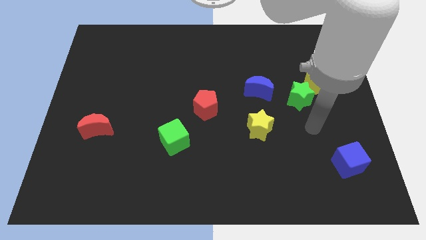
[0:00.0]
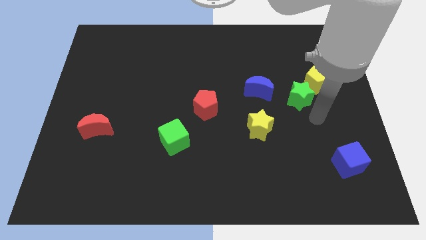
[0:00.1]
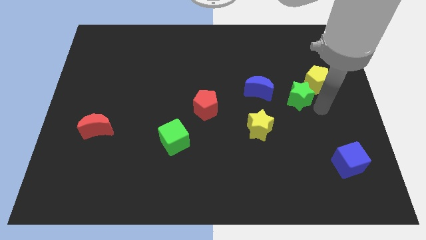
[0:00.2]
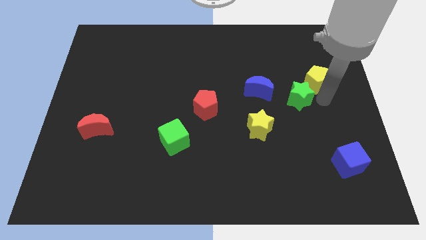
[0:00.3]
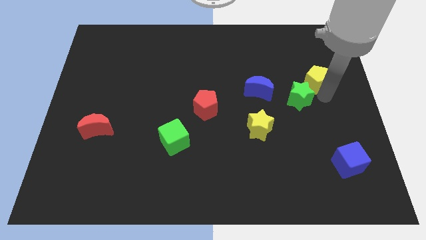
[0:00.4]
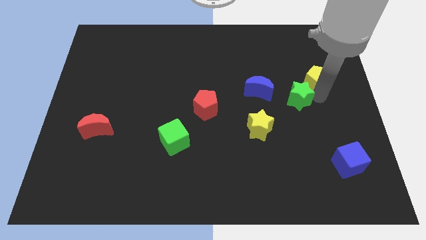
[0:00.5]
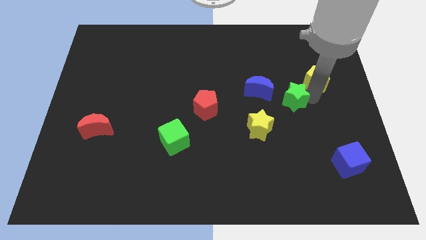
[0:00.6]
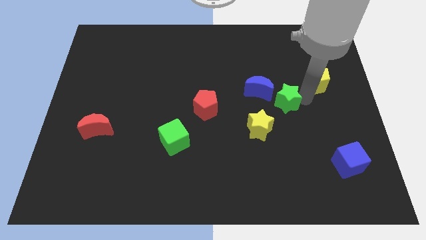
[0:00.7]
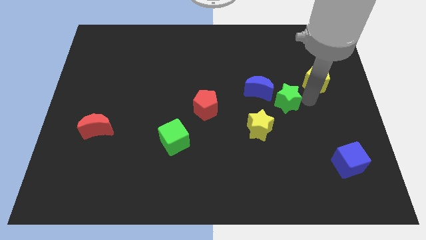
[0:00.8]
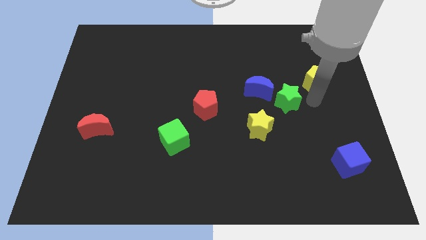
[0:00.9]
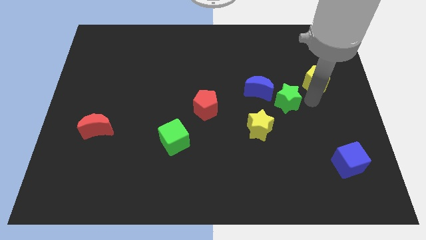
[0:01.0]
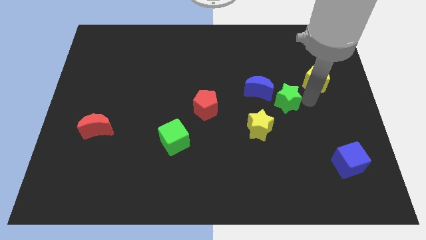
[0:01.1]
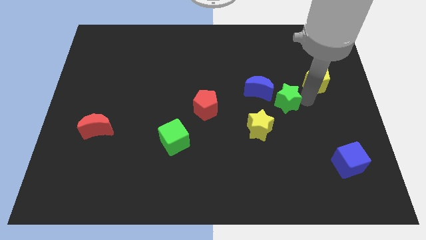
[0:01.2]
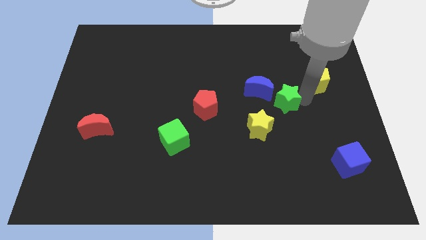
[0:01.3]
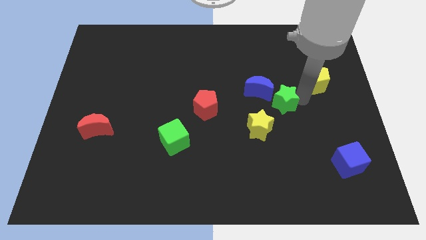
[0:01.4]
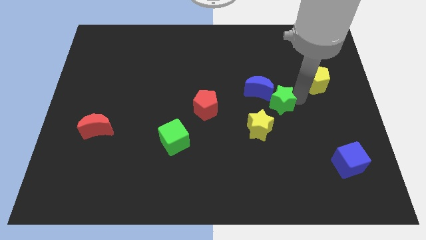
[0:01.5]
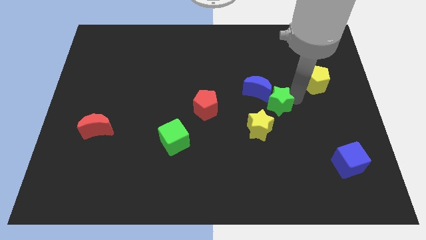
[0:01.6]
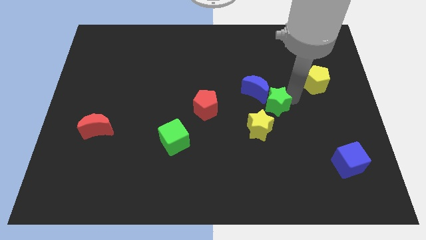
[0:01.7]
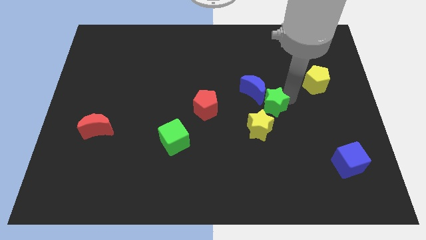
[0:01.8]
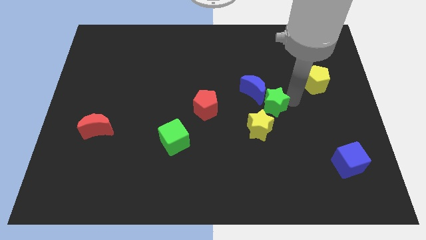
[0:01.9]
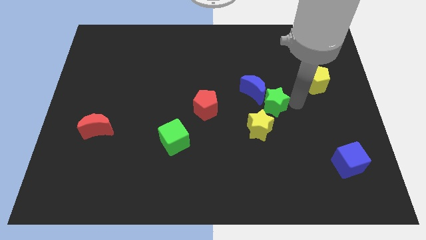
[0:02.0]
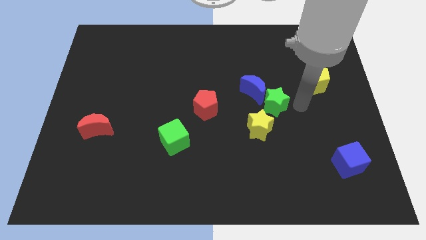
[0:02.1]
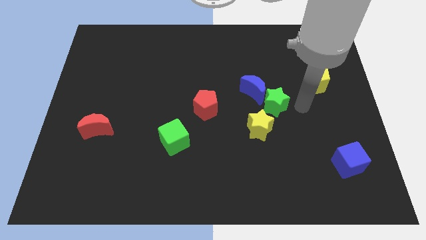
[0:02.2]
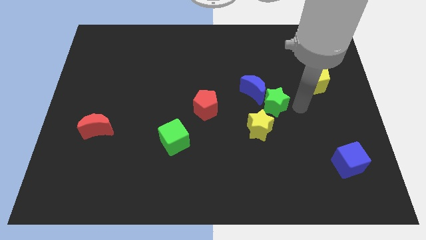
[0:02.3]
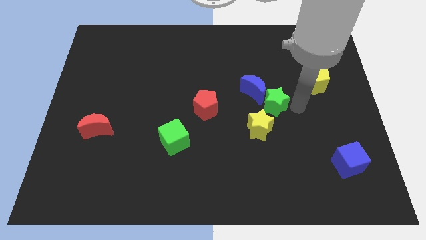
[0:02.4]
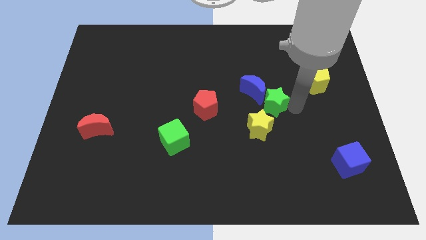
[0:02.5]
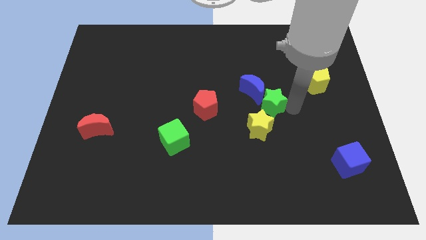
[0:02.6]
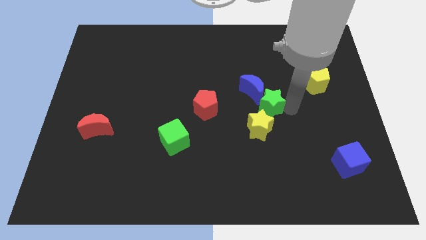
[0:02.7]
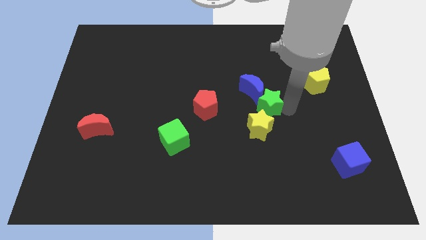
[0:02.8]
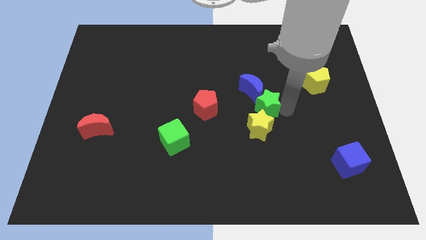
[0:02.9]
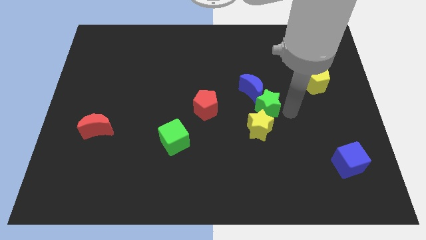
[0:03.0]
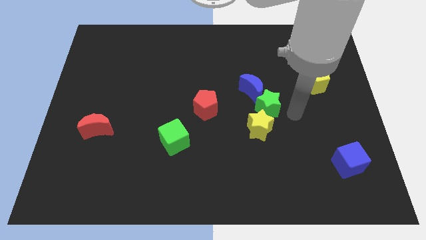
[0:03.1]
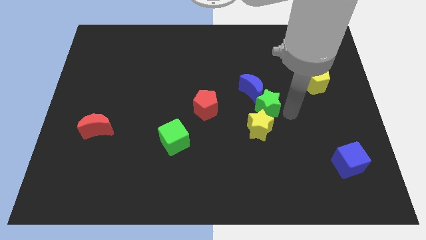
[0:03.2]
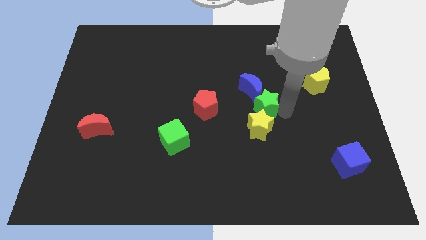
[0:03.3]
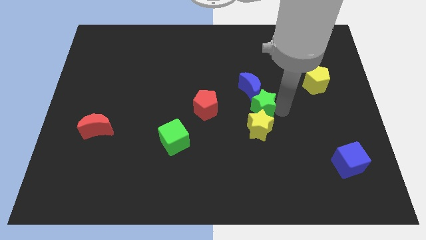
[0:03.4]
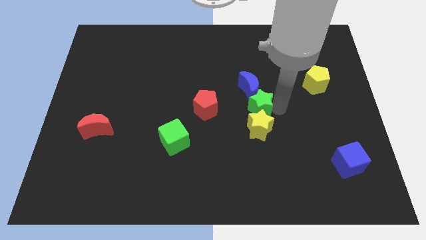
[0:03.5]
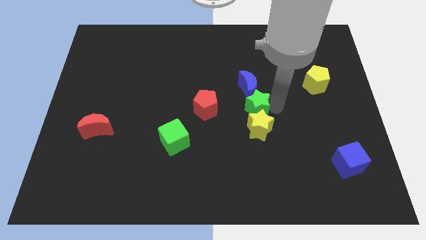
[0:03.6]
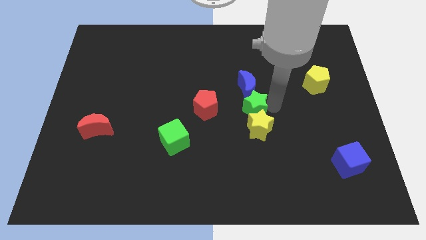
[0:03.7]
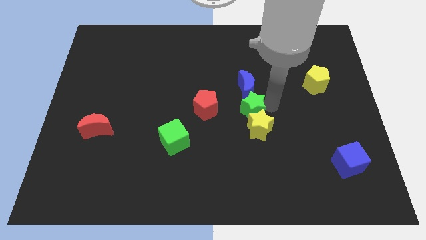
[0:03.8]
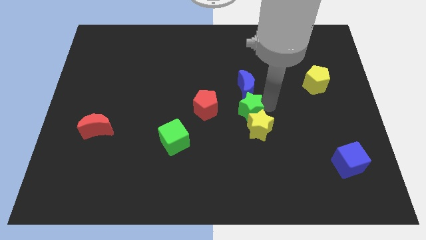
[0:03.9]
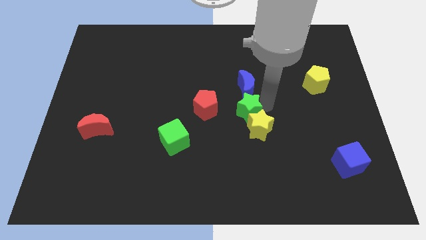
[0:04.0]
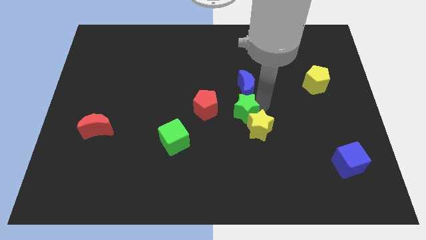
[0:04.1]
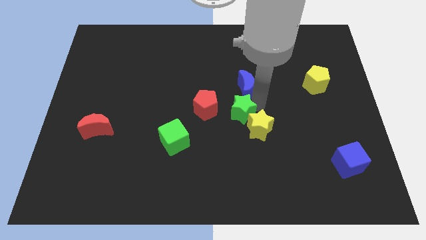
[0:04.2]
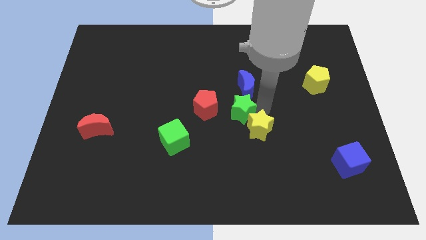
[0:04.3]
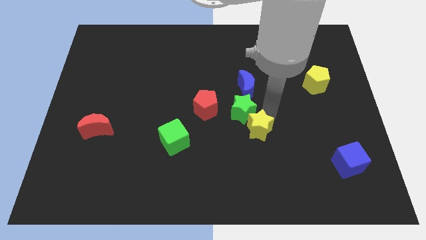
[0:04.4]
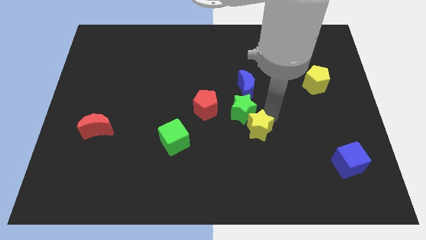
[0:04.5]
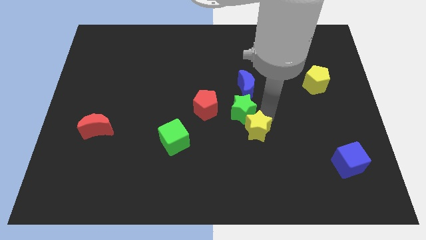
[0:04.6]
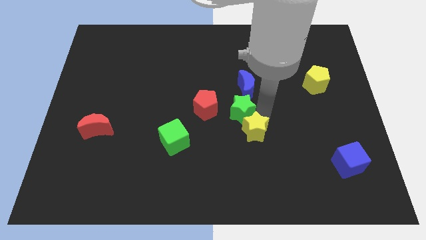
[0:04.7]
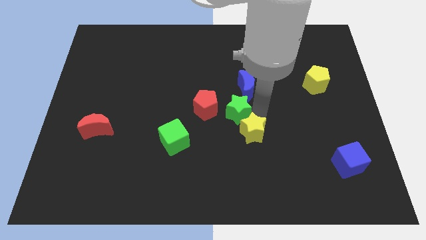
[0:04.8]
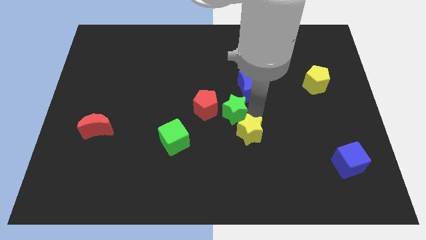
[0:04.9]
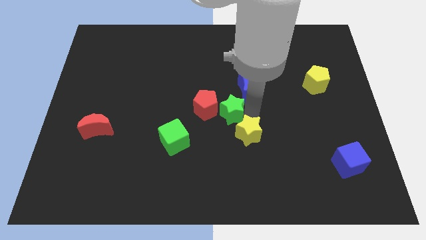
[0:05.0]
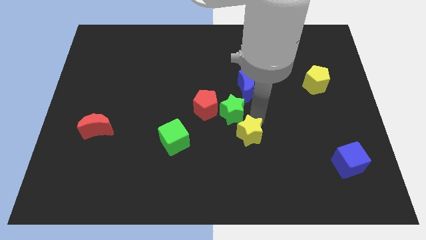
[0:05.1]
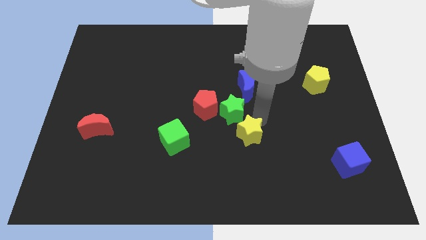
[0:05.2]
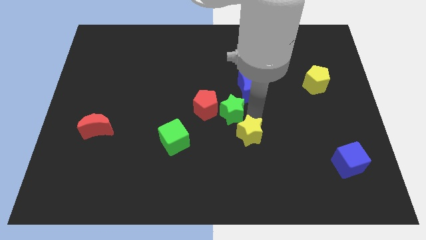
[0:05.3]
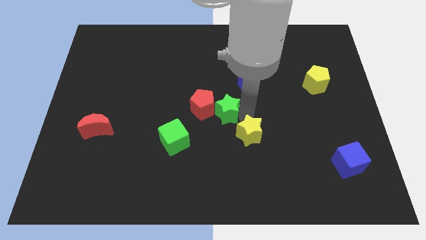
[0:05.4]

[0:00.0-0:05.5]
push the green star next to the red pentagon

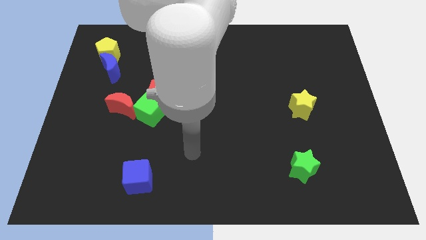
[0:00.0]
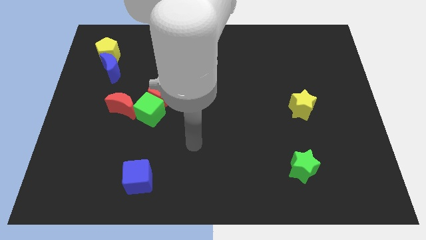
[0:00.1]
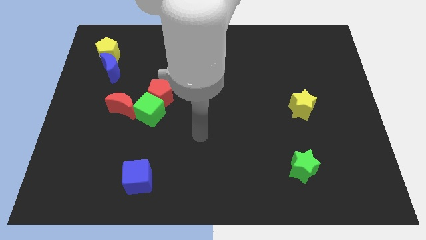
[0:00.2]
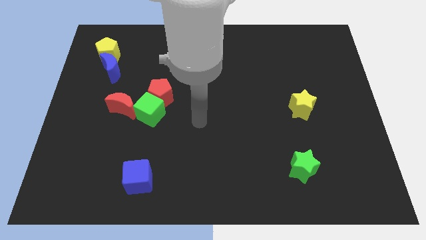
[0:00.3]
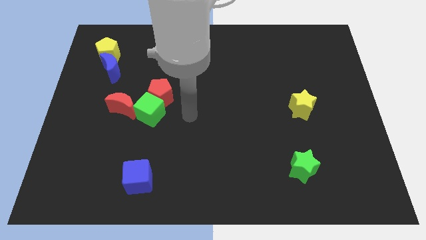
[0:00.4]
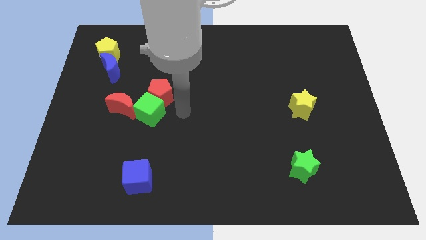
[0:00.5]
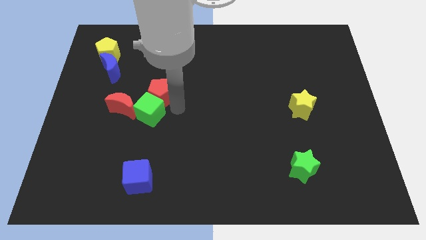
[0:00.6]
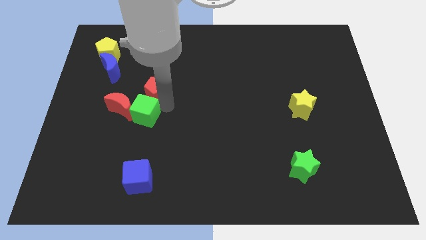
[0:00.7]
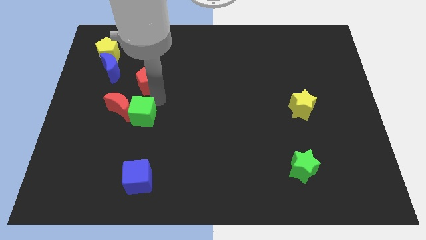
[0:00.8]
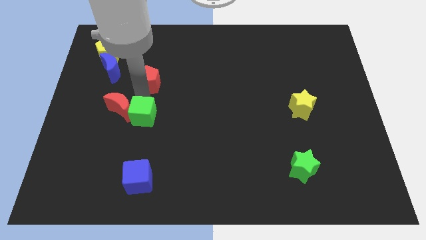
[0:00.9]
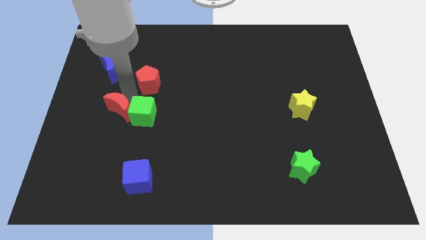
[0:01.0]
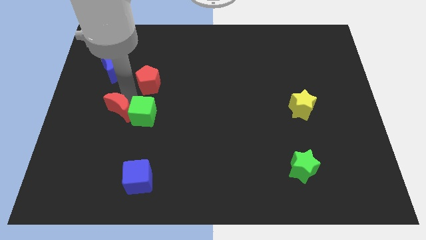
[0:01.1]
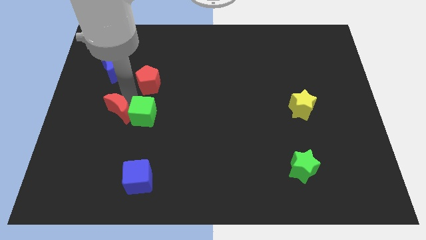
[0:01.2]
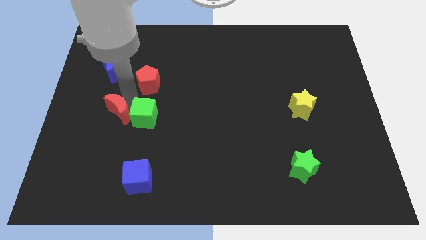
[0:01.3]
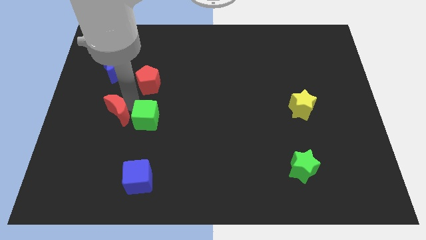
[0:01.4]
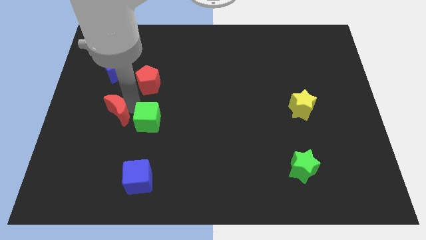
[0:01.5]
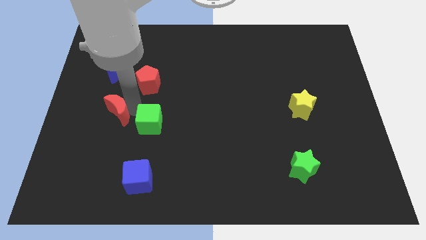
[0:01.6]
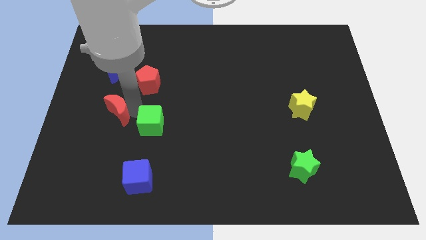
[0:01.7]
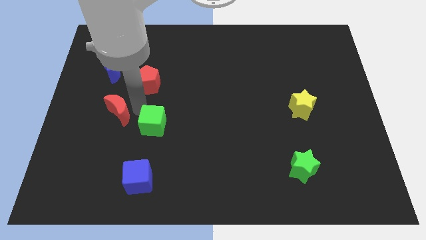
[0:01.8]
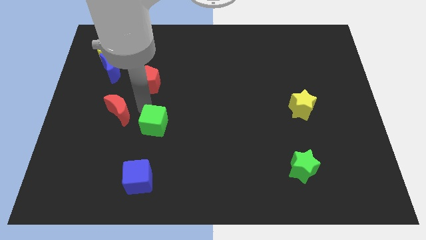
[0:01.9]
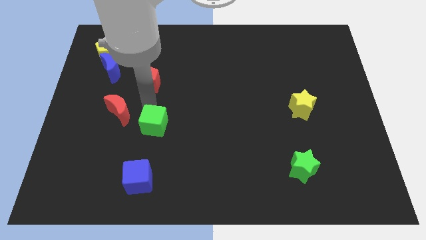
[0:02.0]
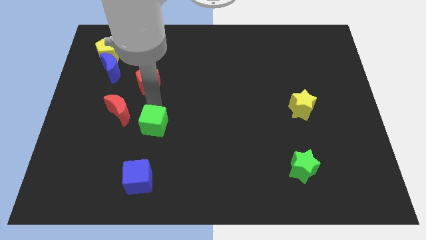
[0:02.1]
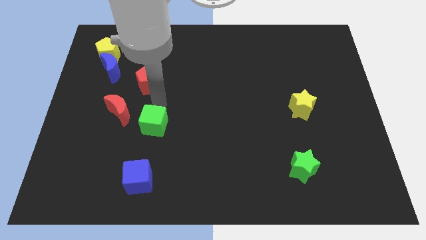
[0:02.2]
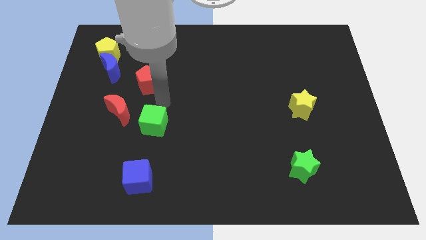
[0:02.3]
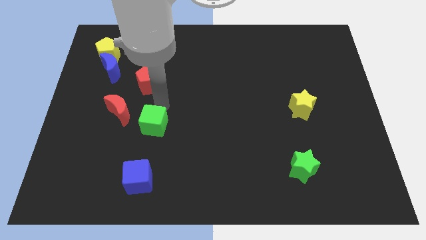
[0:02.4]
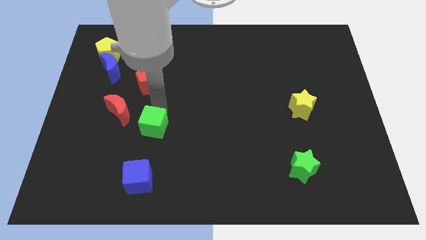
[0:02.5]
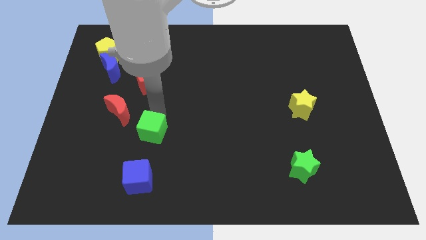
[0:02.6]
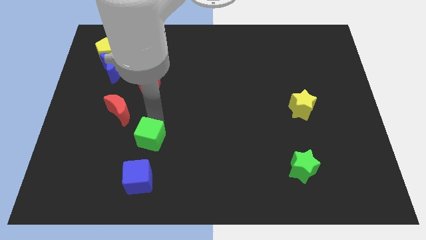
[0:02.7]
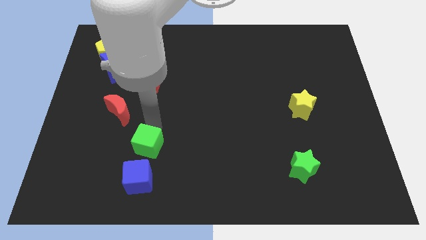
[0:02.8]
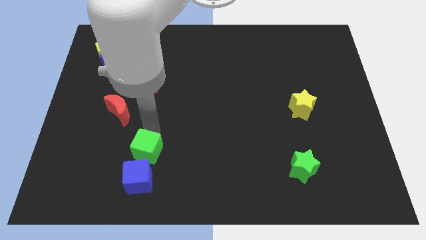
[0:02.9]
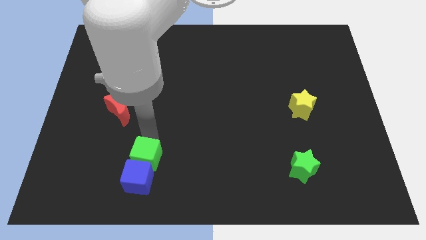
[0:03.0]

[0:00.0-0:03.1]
put the green cube close to the blue cube
